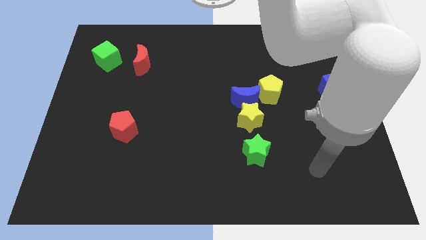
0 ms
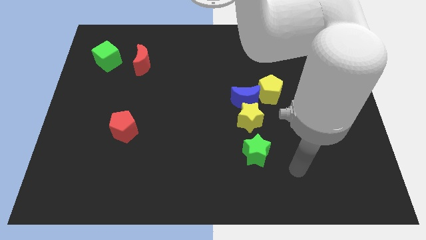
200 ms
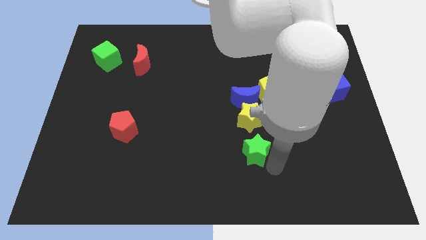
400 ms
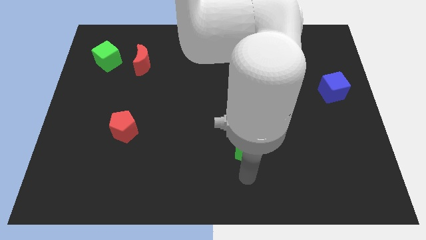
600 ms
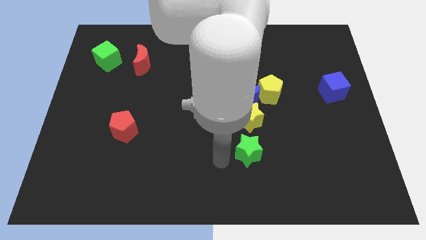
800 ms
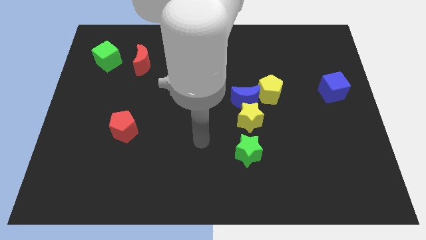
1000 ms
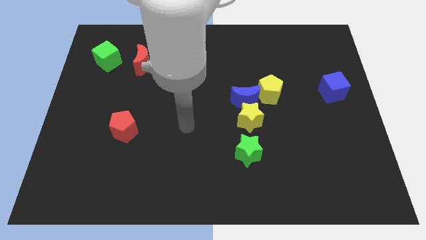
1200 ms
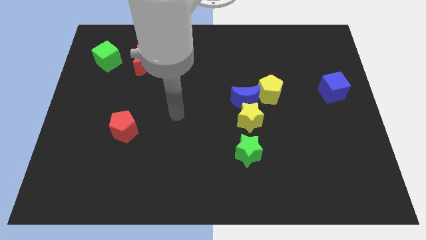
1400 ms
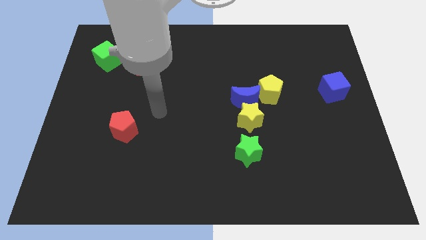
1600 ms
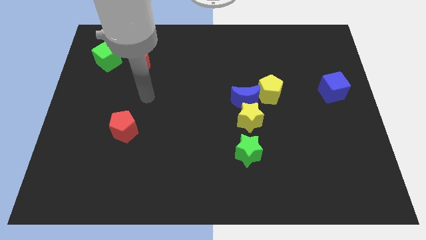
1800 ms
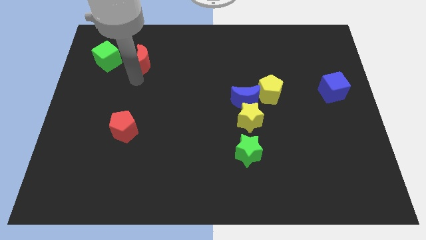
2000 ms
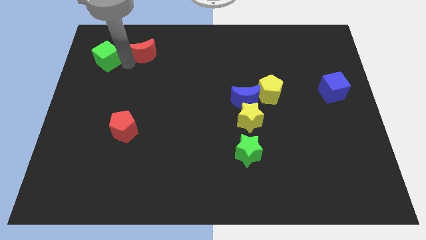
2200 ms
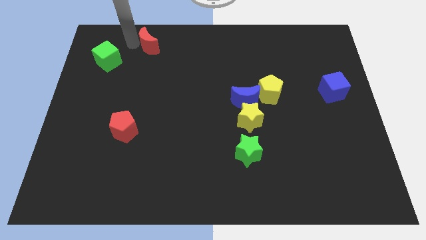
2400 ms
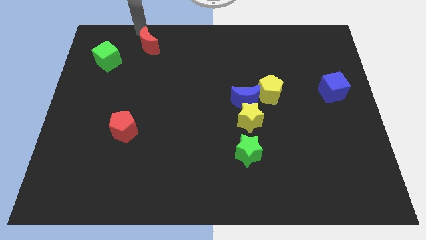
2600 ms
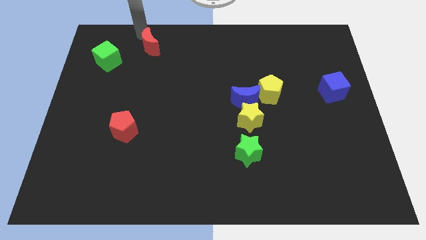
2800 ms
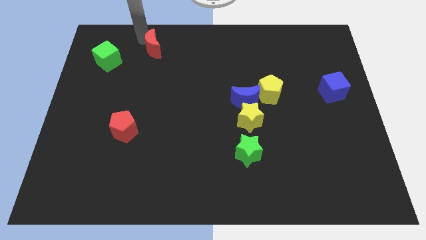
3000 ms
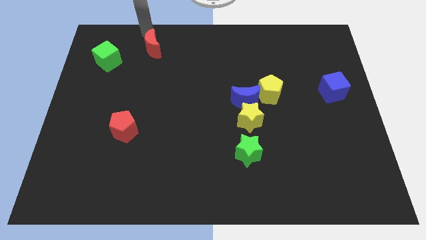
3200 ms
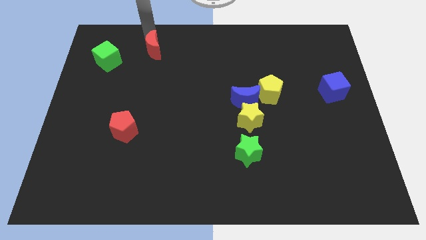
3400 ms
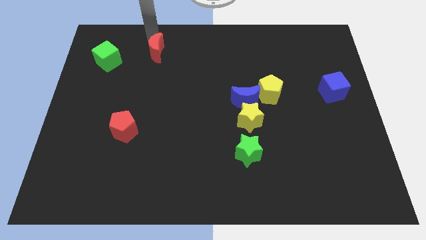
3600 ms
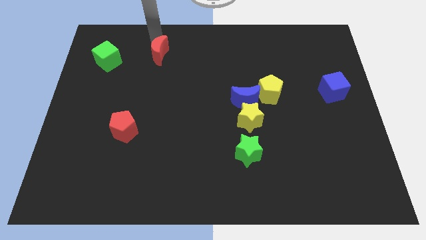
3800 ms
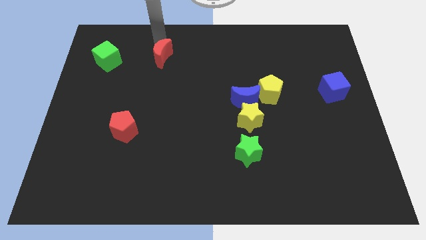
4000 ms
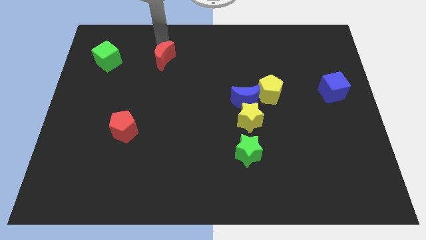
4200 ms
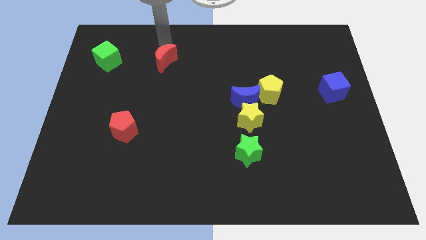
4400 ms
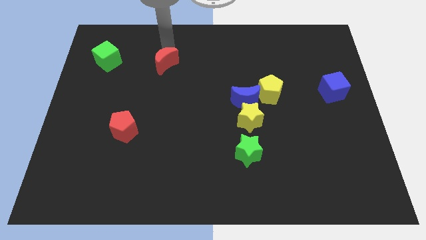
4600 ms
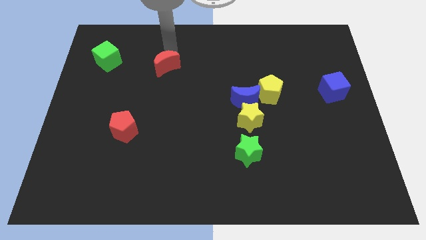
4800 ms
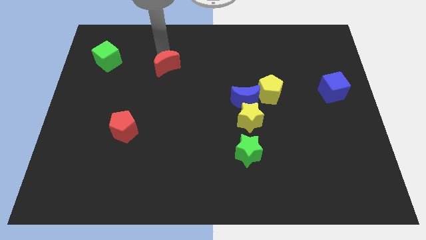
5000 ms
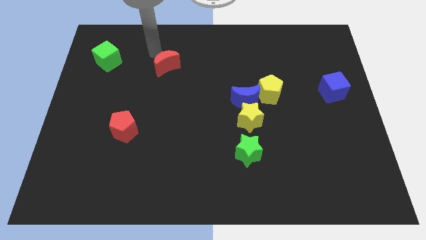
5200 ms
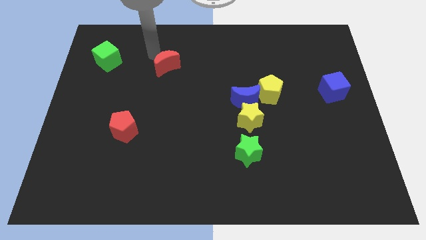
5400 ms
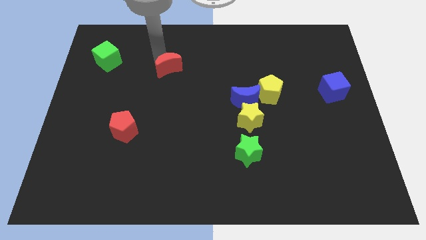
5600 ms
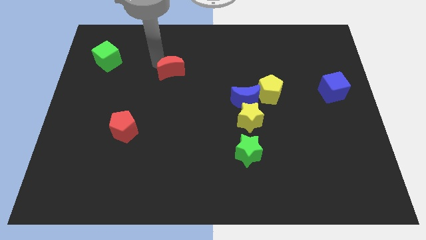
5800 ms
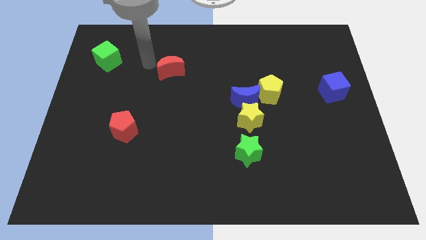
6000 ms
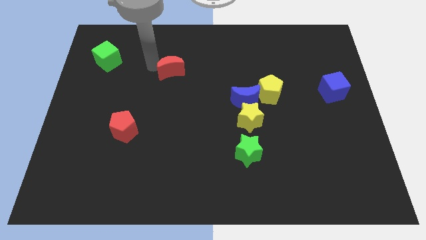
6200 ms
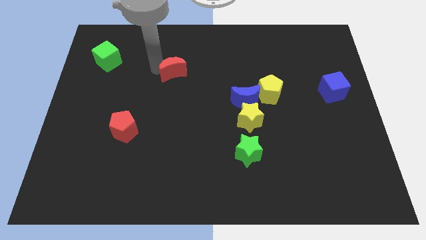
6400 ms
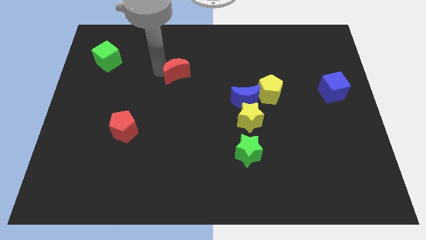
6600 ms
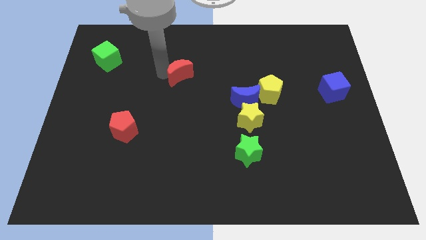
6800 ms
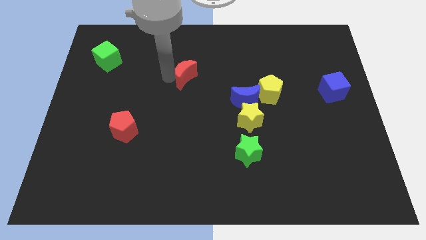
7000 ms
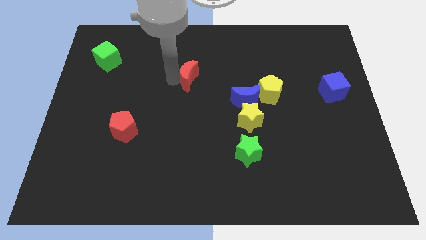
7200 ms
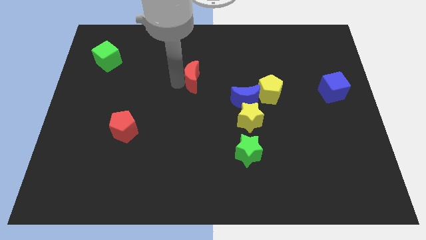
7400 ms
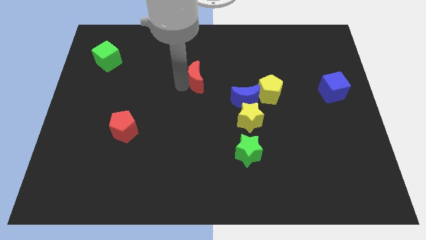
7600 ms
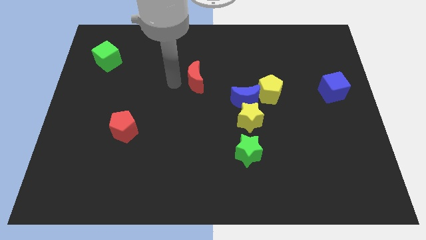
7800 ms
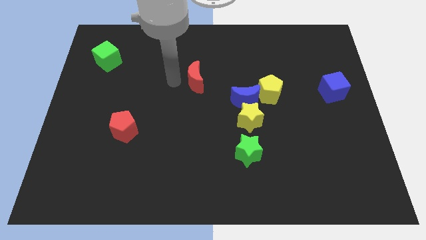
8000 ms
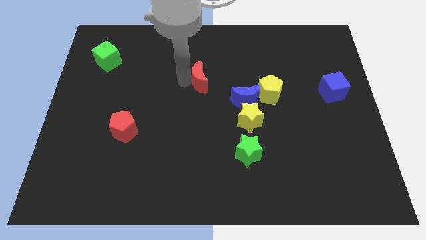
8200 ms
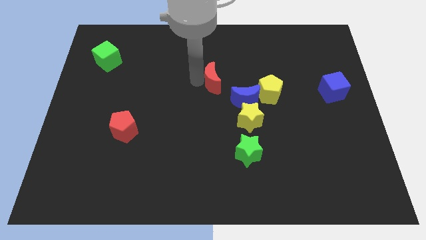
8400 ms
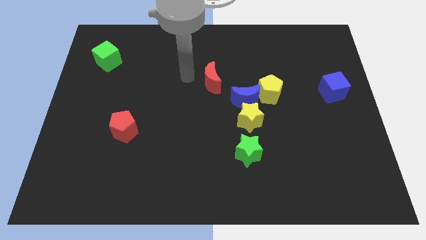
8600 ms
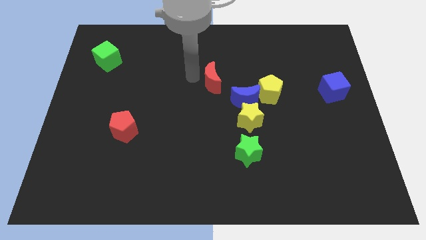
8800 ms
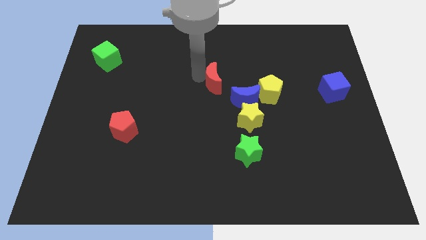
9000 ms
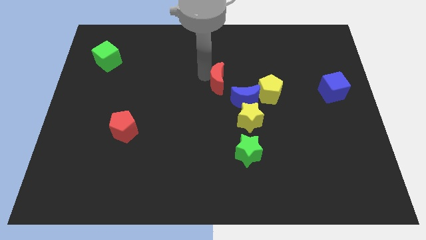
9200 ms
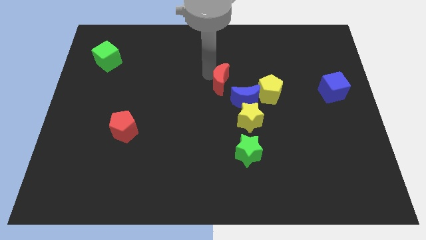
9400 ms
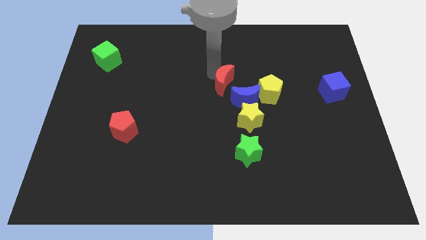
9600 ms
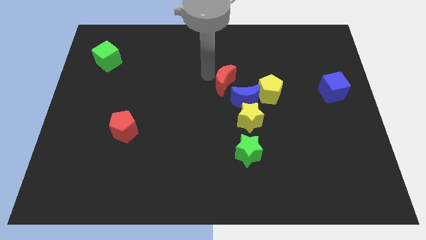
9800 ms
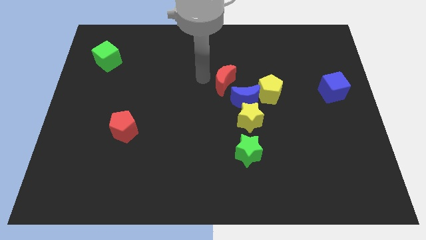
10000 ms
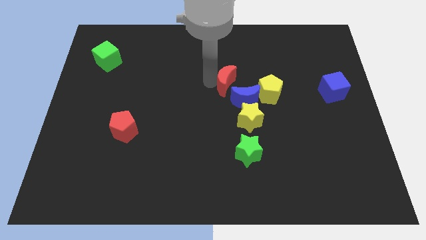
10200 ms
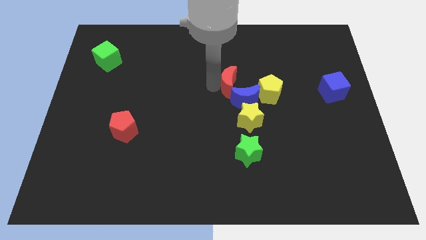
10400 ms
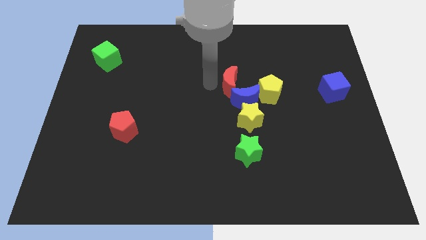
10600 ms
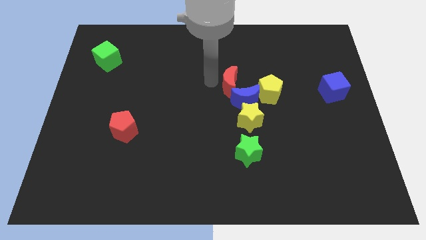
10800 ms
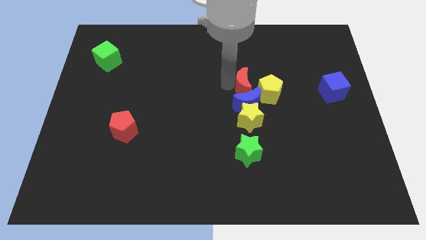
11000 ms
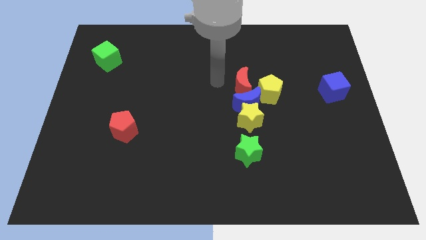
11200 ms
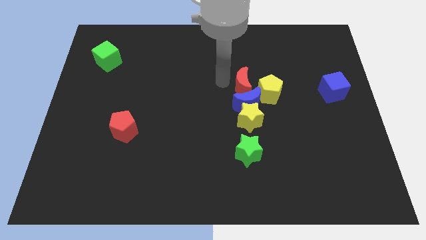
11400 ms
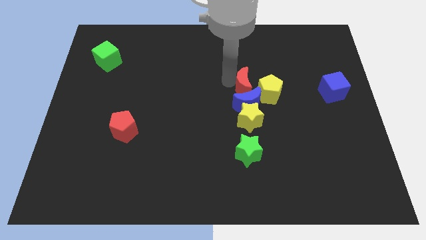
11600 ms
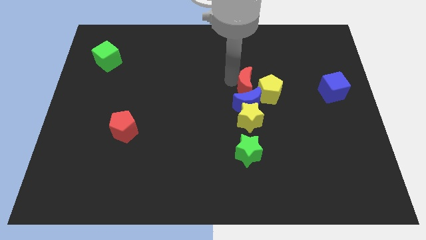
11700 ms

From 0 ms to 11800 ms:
push the red moon next to the yellow pentagon

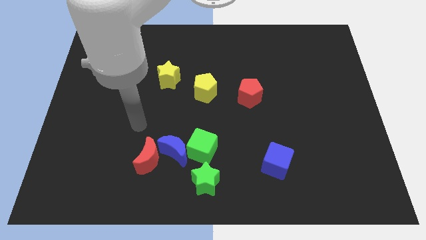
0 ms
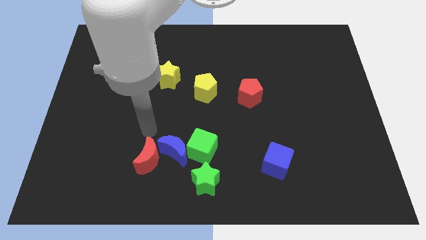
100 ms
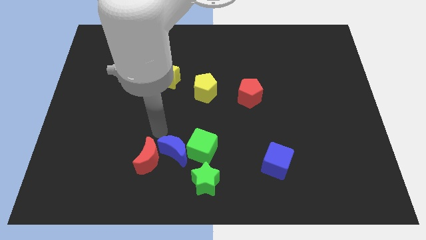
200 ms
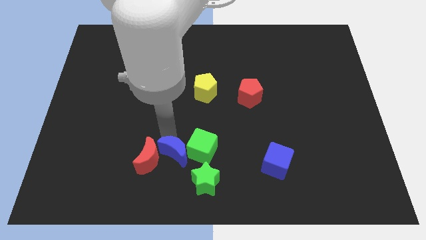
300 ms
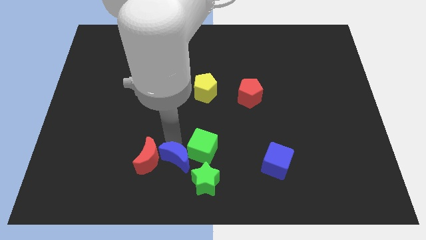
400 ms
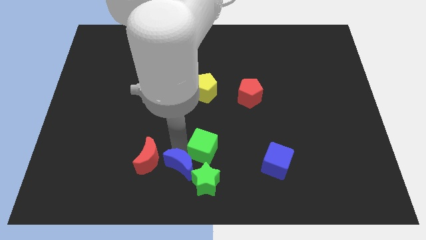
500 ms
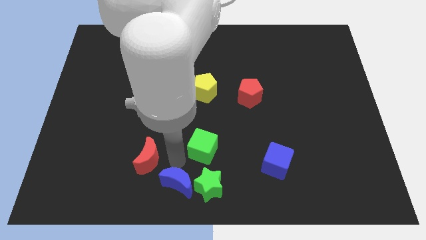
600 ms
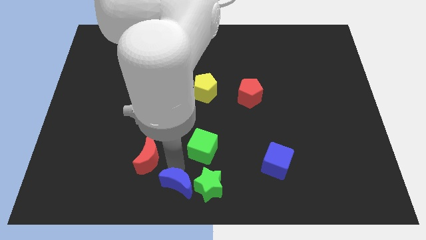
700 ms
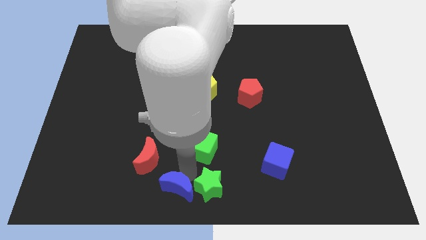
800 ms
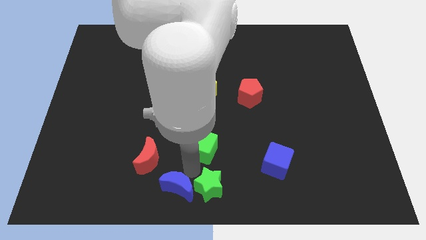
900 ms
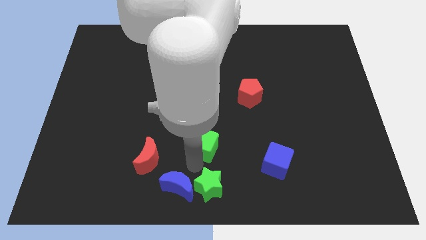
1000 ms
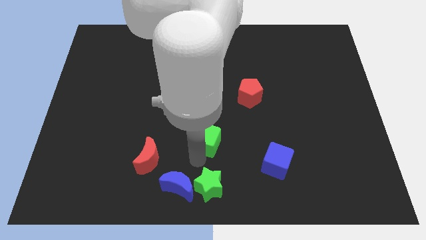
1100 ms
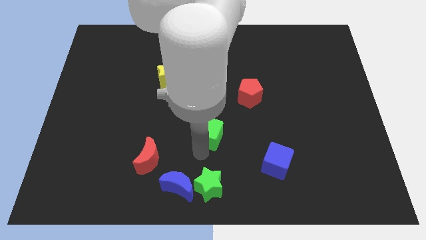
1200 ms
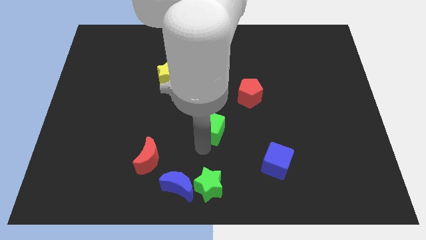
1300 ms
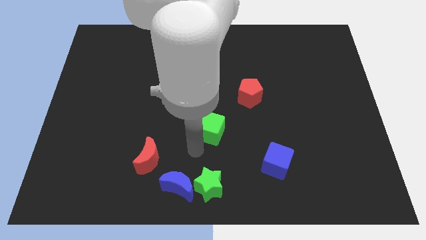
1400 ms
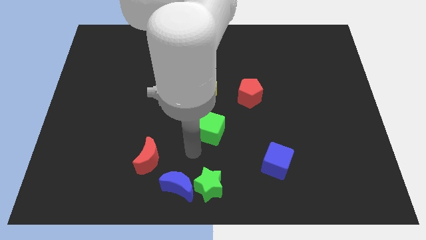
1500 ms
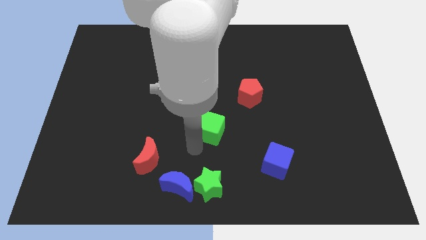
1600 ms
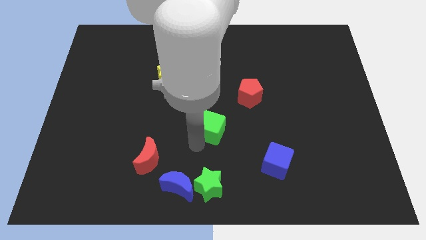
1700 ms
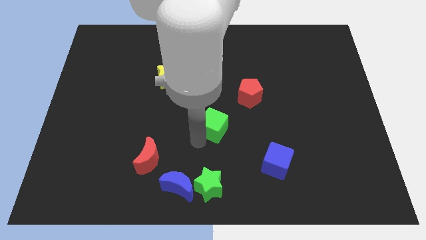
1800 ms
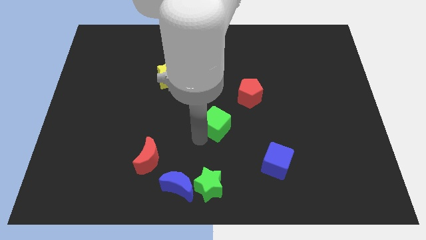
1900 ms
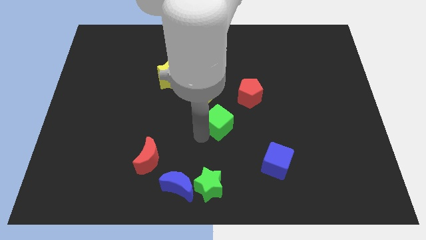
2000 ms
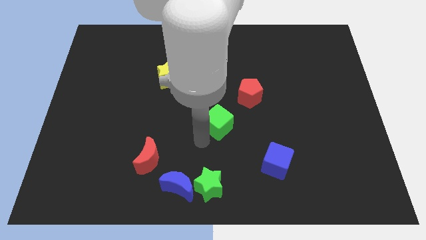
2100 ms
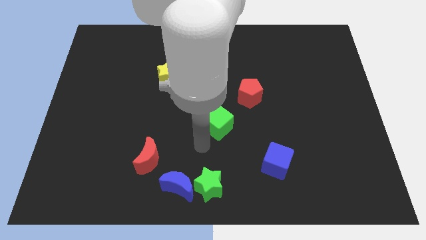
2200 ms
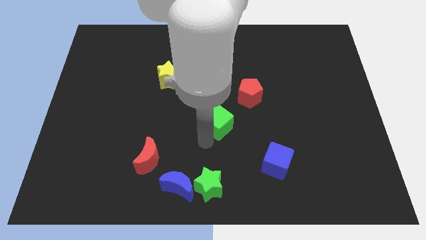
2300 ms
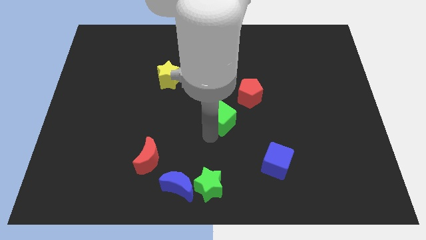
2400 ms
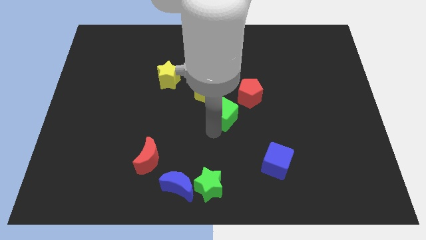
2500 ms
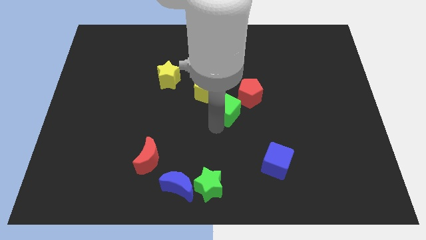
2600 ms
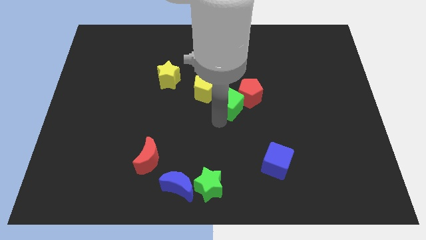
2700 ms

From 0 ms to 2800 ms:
move the green cube towards the red pentagon
